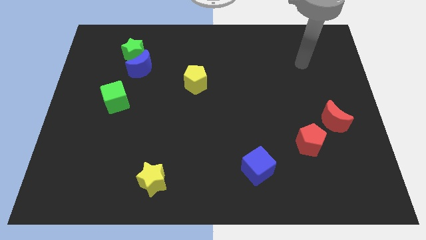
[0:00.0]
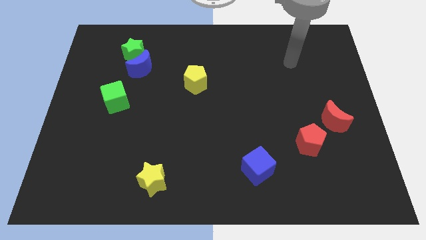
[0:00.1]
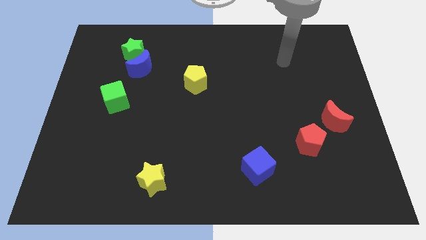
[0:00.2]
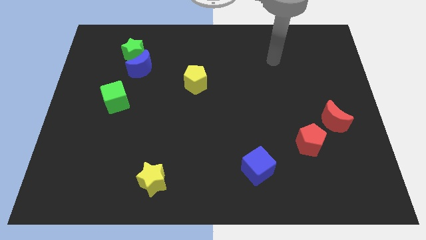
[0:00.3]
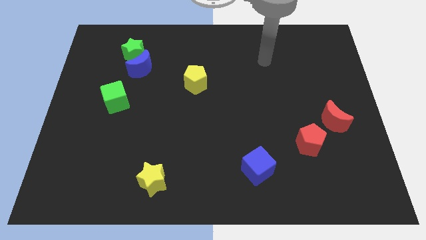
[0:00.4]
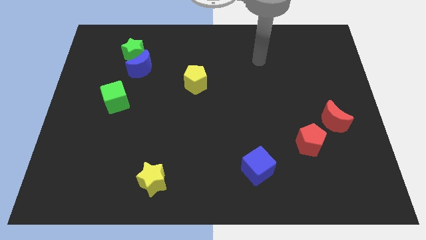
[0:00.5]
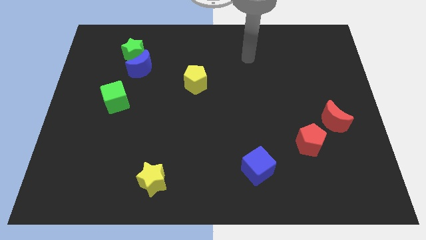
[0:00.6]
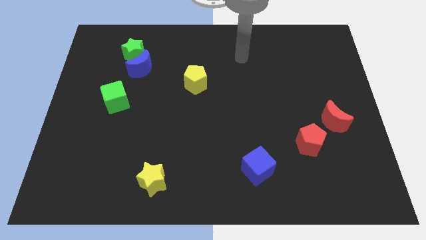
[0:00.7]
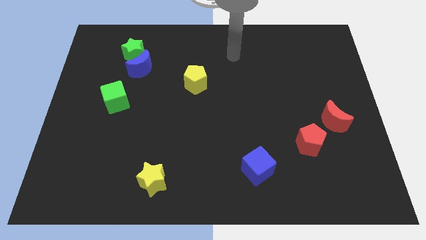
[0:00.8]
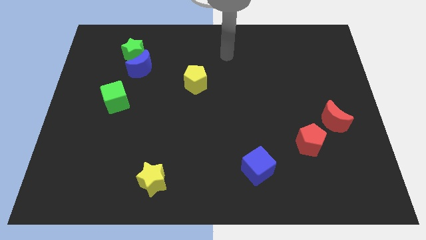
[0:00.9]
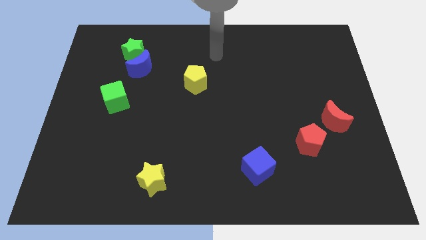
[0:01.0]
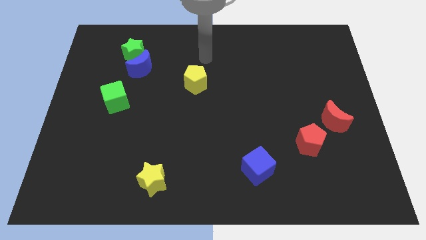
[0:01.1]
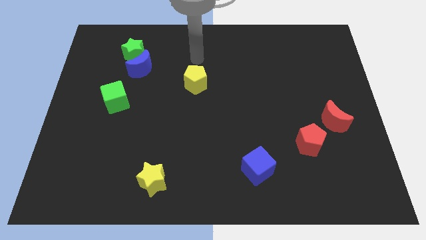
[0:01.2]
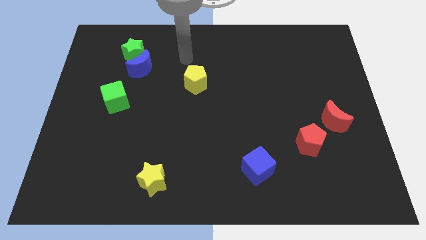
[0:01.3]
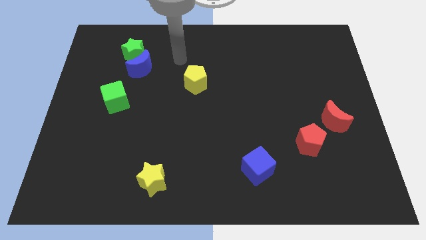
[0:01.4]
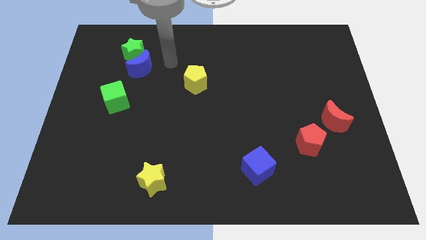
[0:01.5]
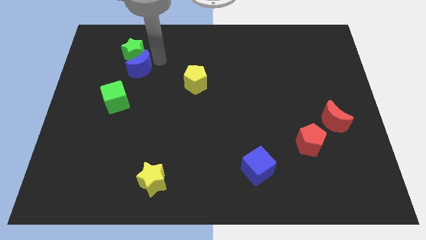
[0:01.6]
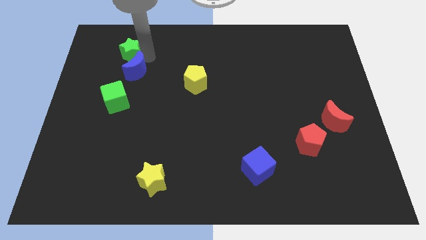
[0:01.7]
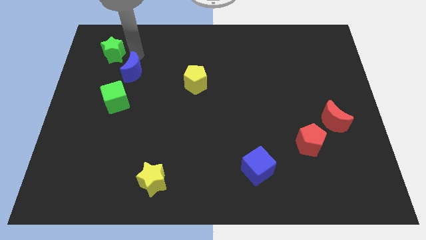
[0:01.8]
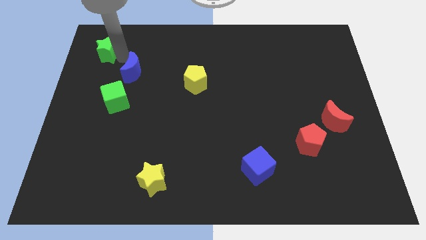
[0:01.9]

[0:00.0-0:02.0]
pull the blue moon apart from the green star

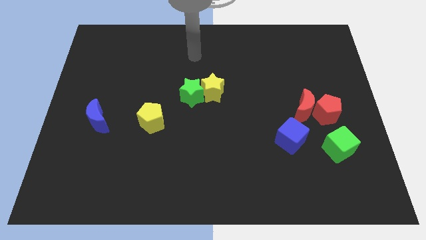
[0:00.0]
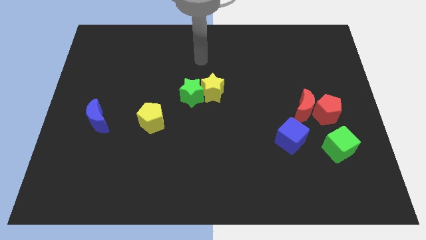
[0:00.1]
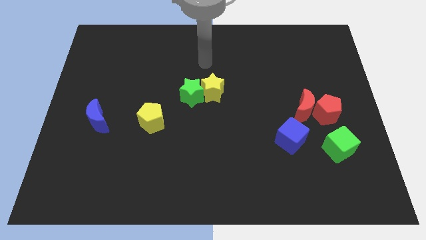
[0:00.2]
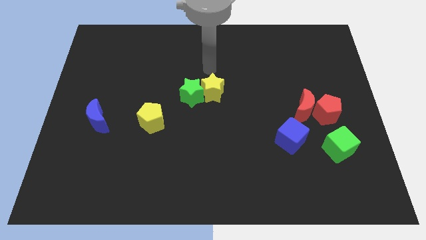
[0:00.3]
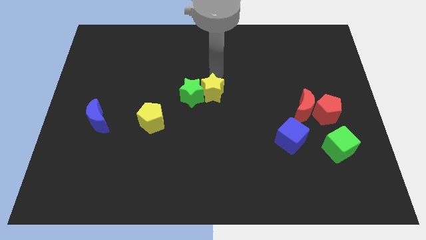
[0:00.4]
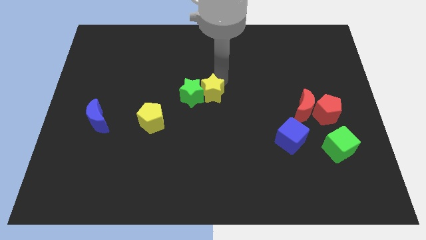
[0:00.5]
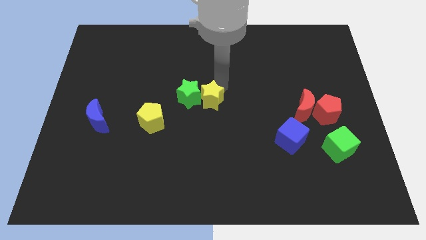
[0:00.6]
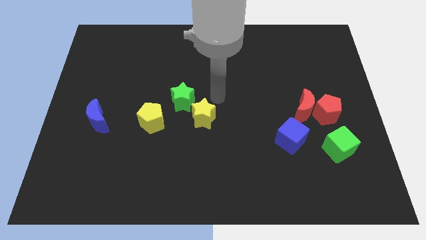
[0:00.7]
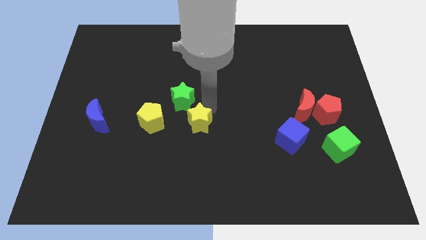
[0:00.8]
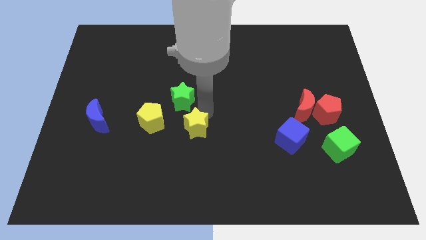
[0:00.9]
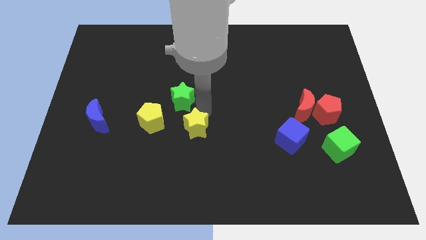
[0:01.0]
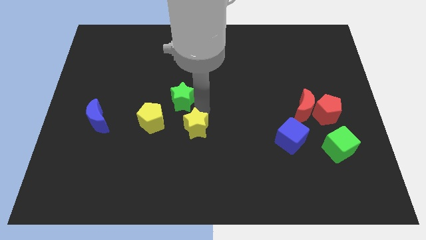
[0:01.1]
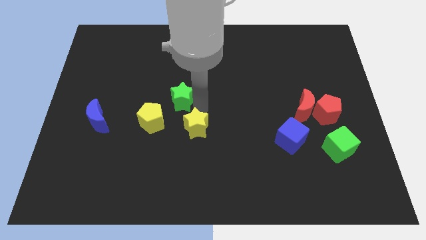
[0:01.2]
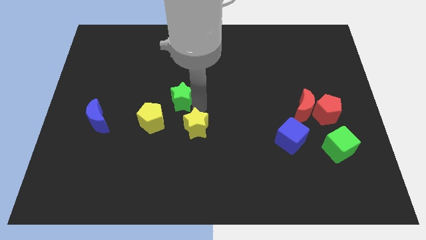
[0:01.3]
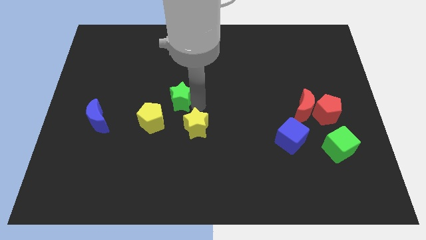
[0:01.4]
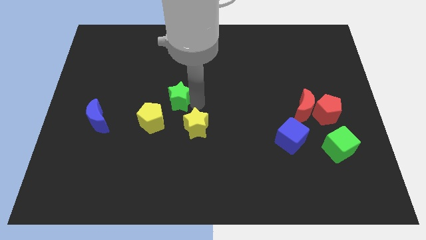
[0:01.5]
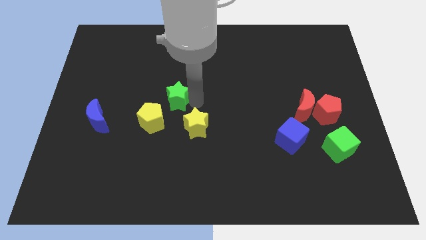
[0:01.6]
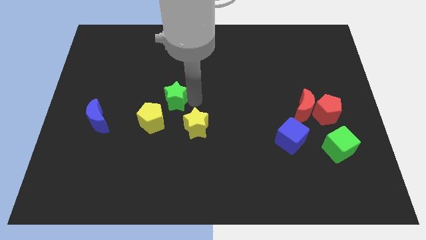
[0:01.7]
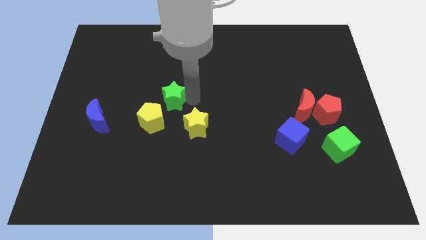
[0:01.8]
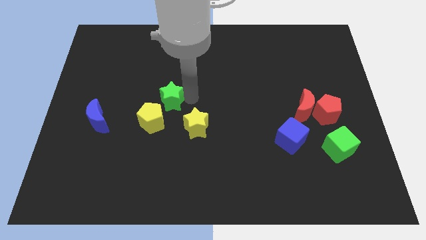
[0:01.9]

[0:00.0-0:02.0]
pull the green star apart from the yellow star

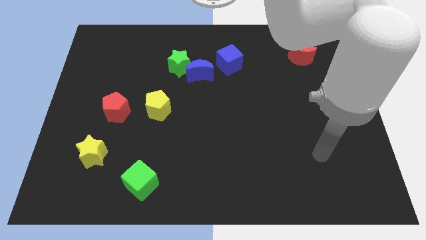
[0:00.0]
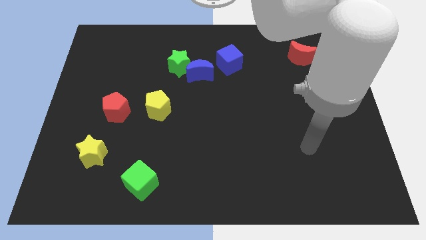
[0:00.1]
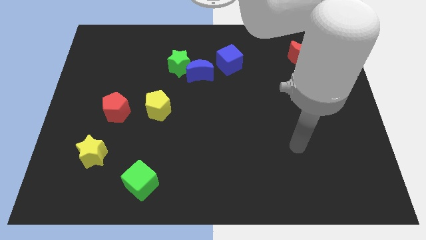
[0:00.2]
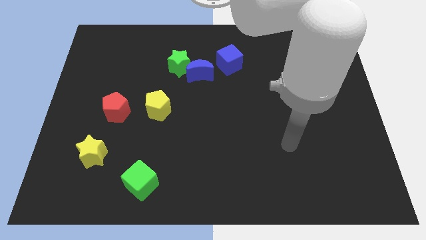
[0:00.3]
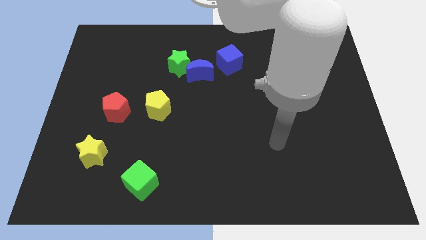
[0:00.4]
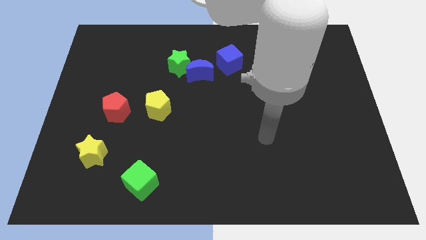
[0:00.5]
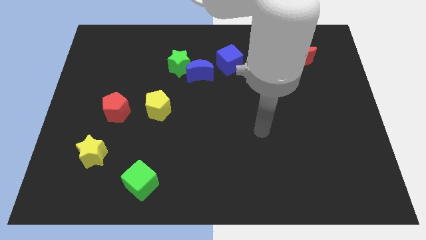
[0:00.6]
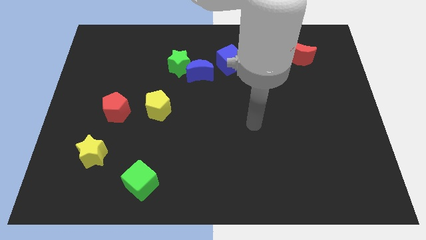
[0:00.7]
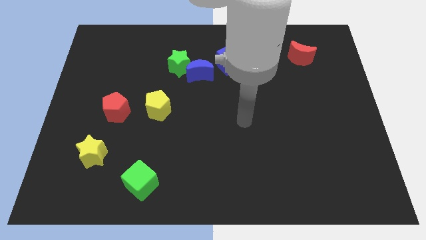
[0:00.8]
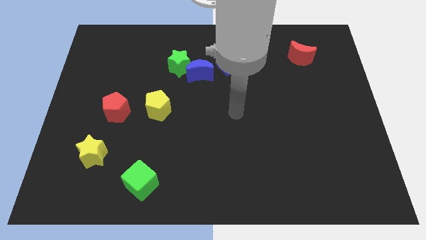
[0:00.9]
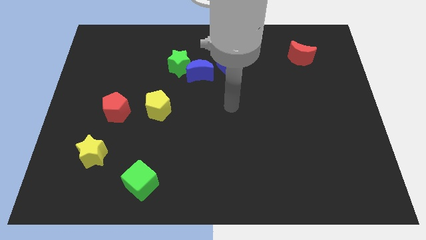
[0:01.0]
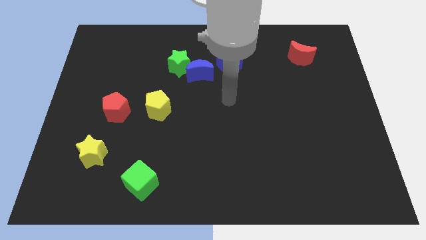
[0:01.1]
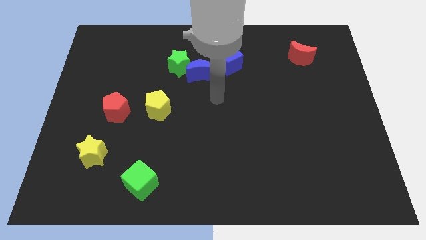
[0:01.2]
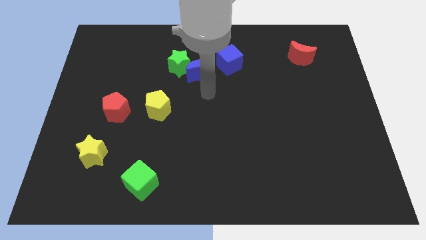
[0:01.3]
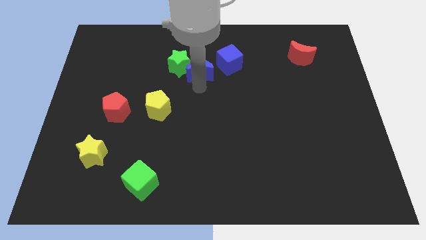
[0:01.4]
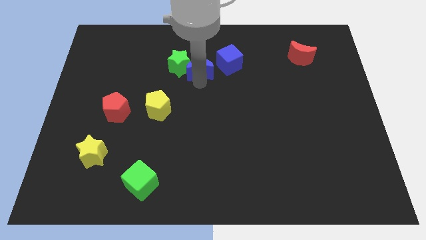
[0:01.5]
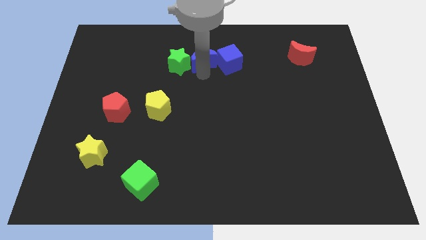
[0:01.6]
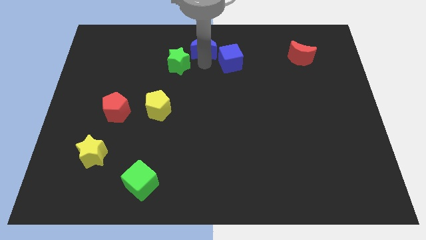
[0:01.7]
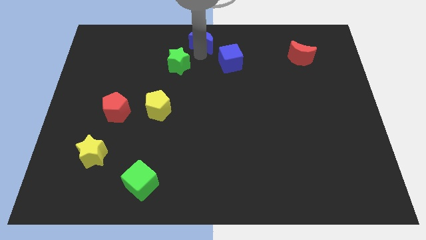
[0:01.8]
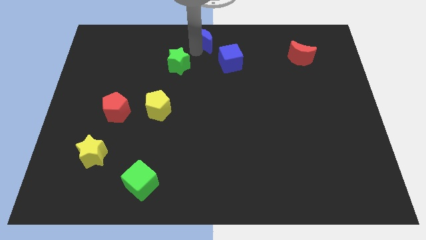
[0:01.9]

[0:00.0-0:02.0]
move the green star away from the blue moon

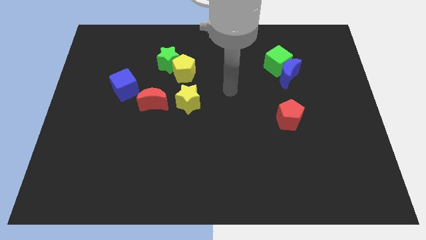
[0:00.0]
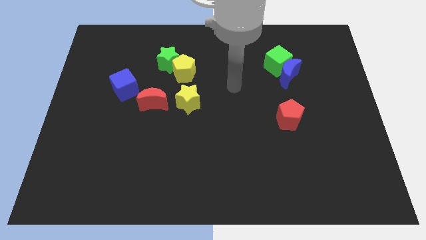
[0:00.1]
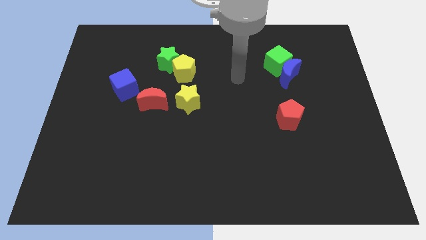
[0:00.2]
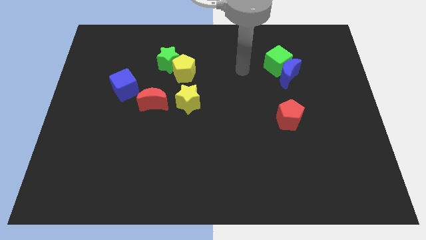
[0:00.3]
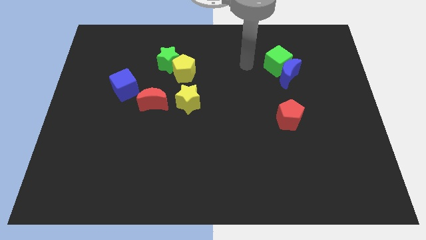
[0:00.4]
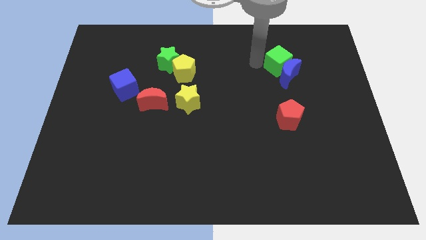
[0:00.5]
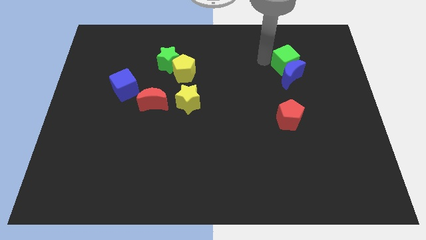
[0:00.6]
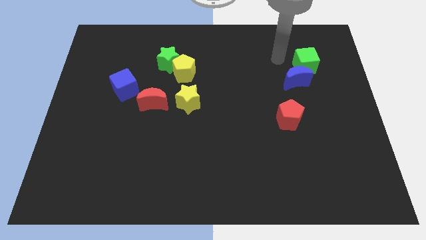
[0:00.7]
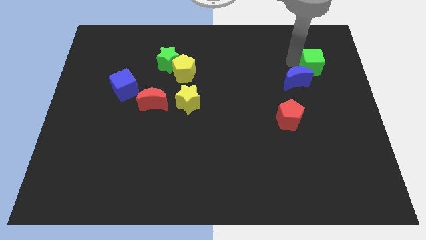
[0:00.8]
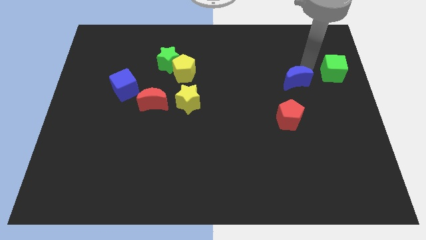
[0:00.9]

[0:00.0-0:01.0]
pull the blue moon apart from the green cube

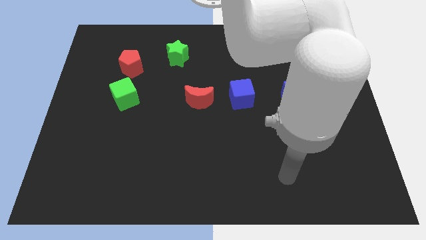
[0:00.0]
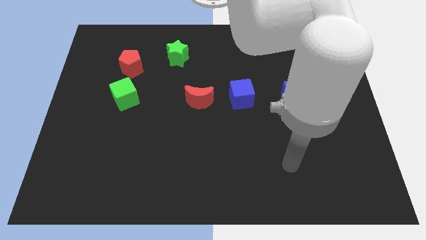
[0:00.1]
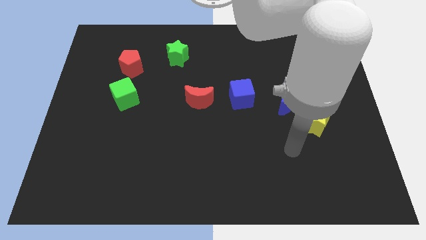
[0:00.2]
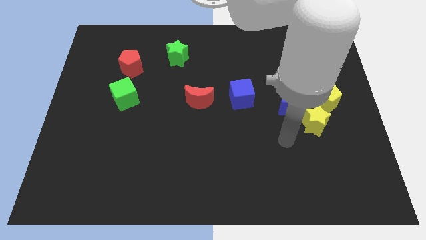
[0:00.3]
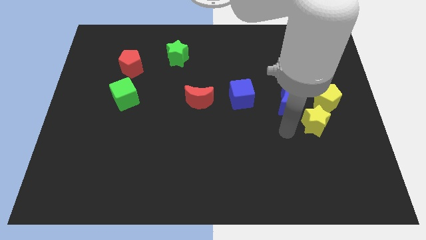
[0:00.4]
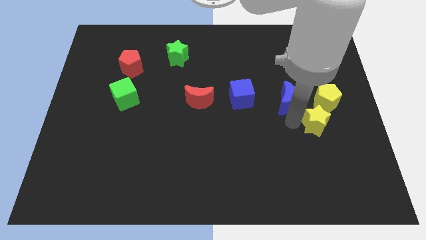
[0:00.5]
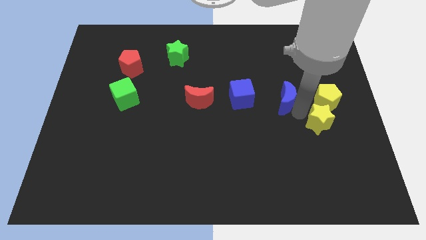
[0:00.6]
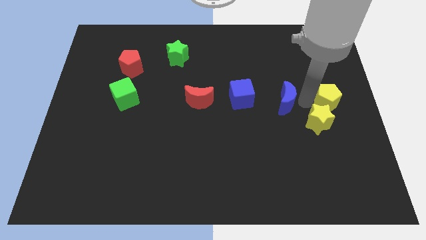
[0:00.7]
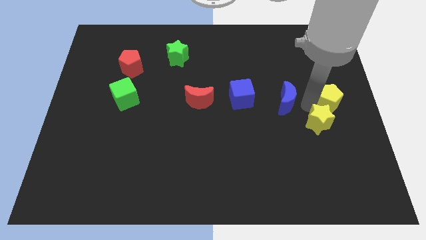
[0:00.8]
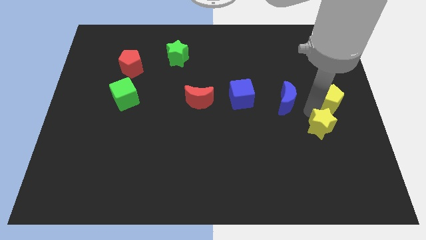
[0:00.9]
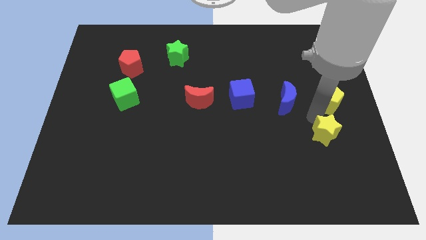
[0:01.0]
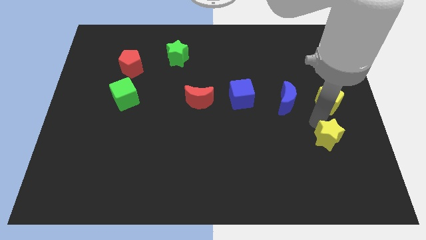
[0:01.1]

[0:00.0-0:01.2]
separate the yellow star from the yellow pentagon and blue moon

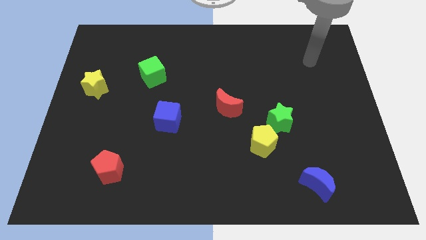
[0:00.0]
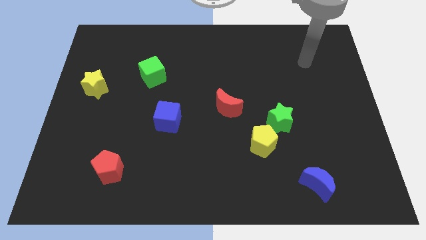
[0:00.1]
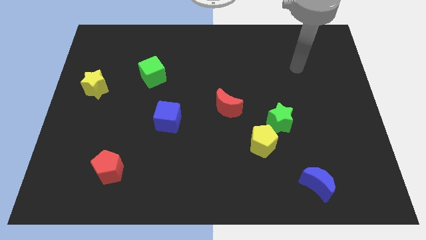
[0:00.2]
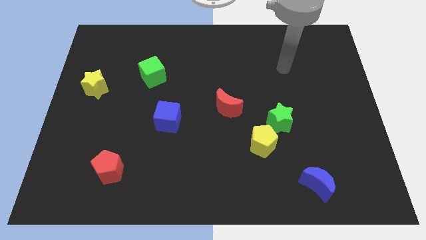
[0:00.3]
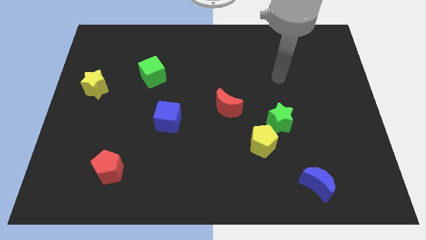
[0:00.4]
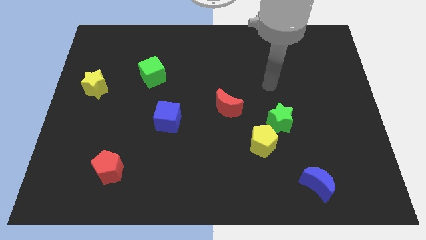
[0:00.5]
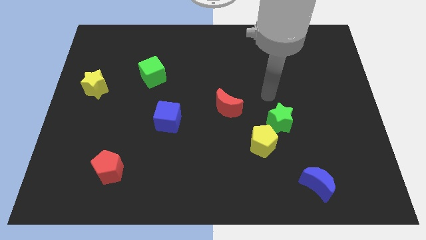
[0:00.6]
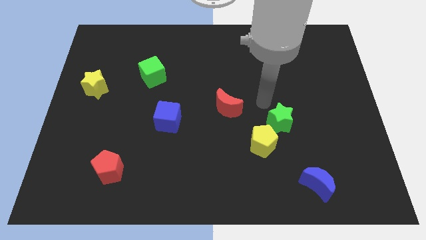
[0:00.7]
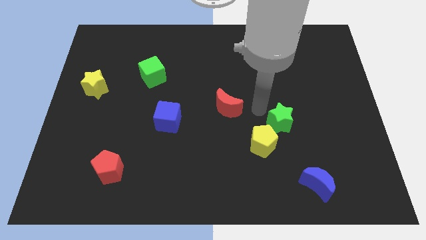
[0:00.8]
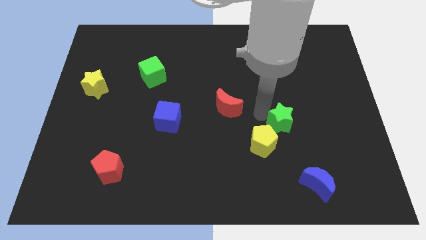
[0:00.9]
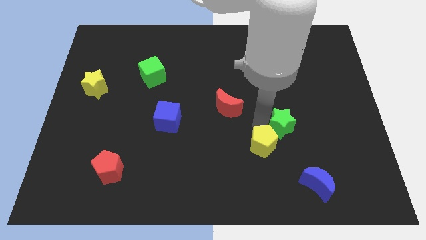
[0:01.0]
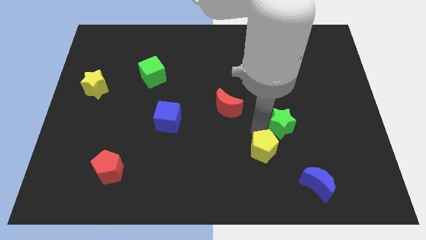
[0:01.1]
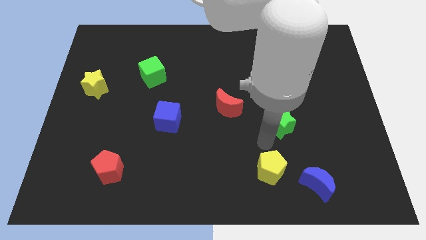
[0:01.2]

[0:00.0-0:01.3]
move the green star away from the yellow pentagon
